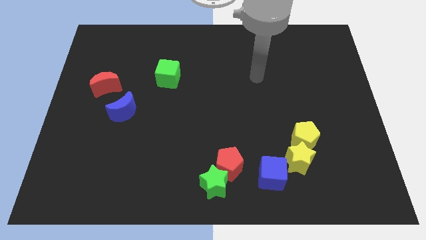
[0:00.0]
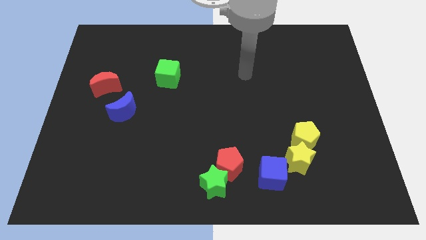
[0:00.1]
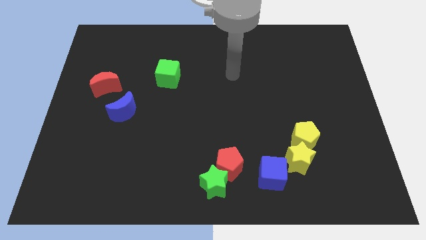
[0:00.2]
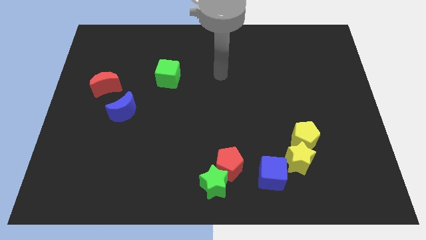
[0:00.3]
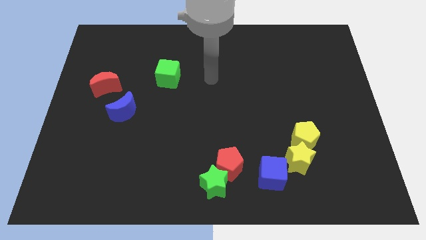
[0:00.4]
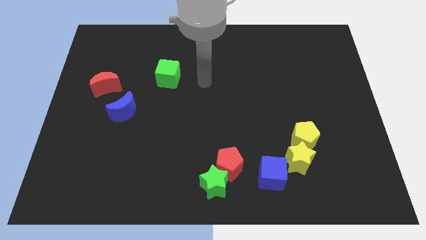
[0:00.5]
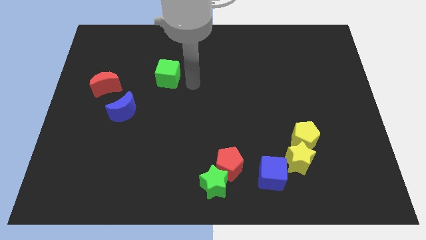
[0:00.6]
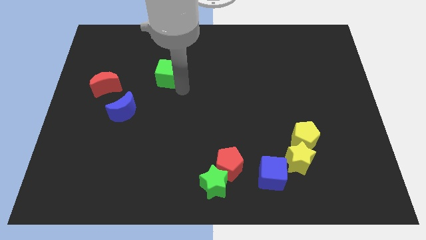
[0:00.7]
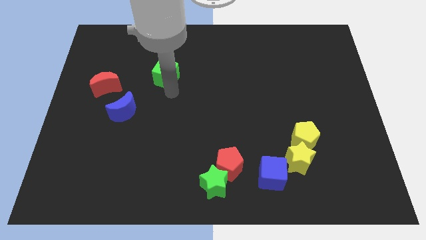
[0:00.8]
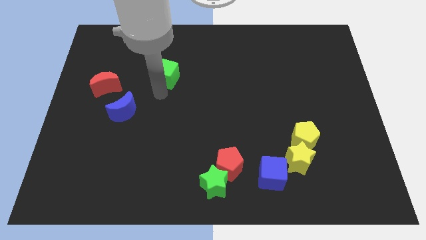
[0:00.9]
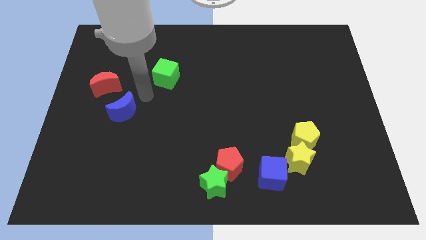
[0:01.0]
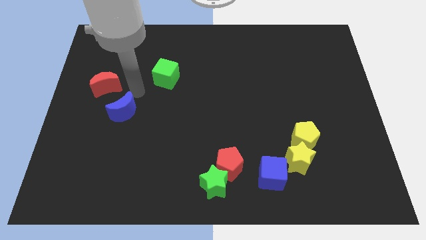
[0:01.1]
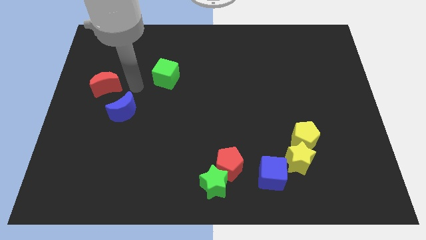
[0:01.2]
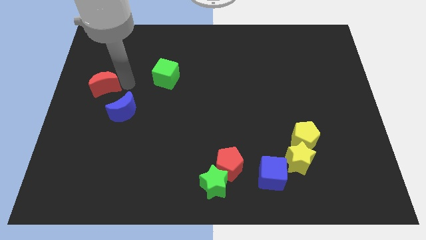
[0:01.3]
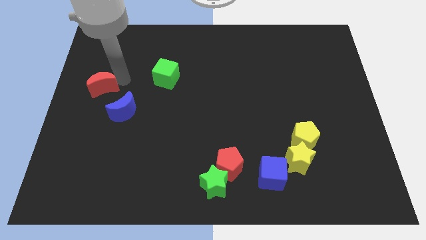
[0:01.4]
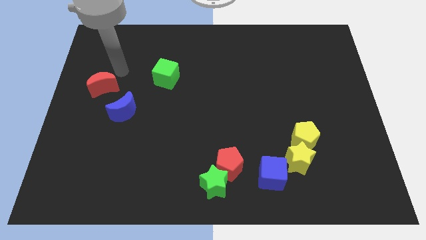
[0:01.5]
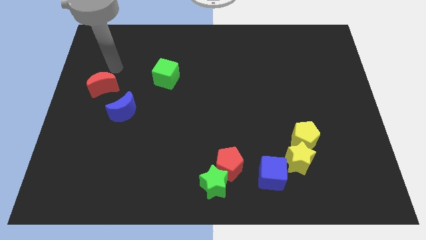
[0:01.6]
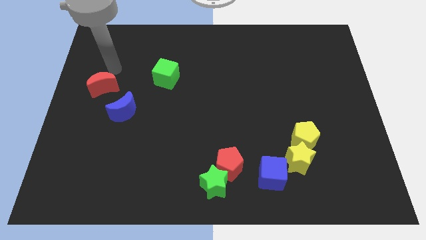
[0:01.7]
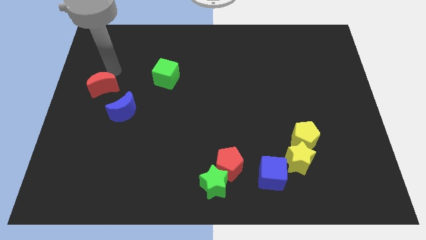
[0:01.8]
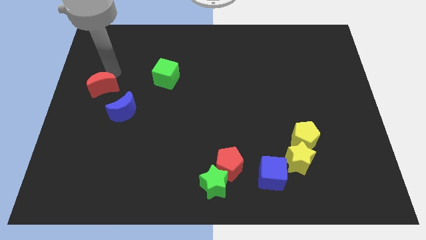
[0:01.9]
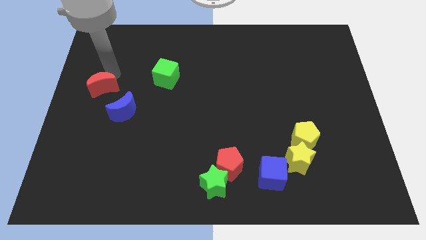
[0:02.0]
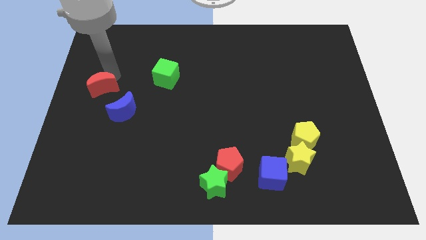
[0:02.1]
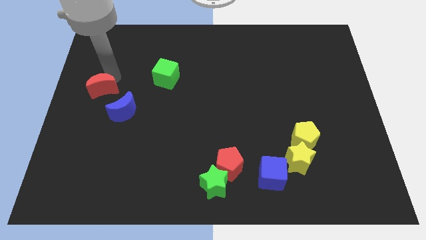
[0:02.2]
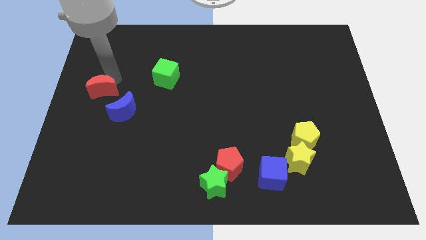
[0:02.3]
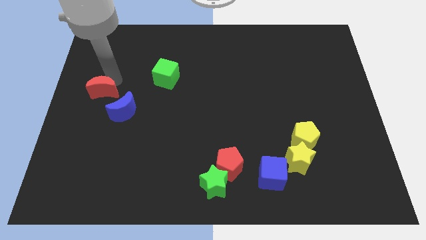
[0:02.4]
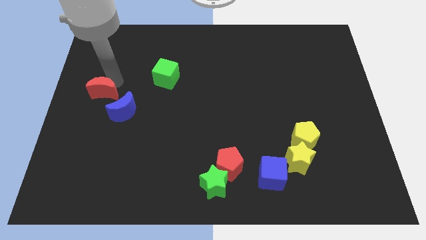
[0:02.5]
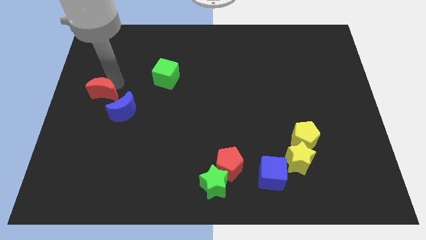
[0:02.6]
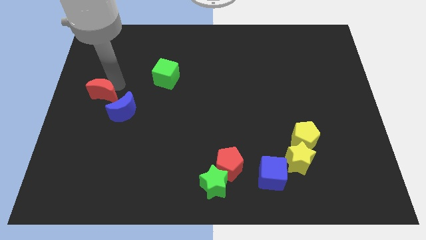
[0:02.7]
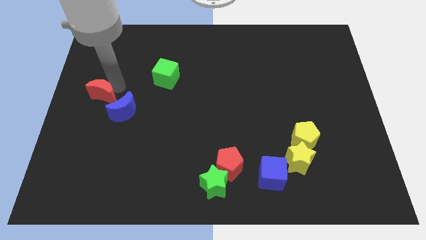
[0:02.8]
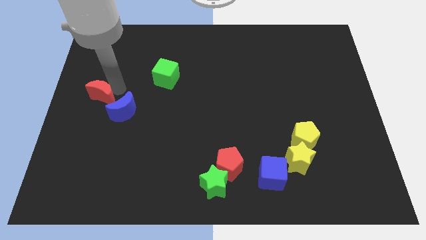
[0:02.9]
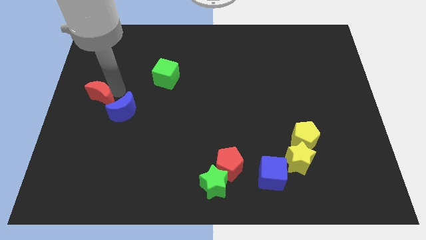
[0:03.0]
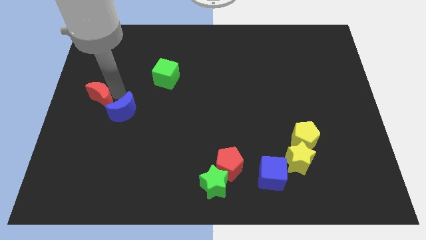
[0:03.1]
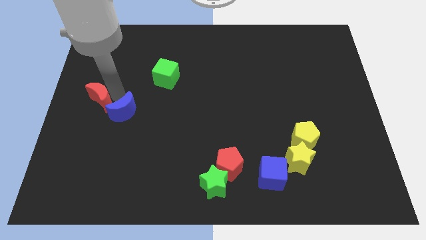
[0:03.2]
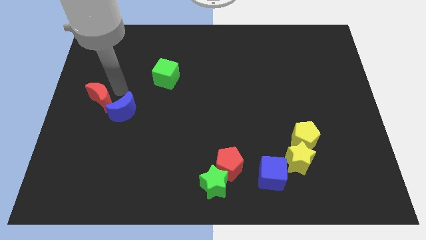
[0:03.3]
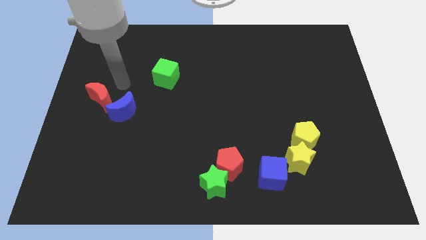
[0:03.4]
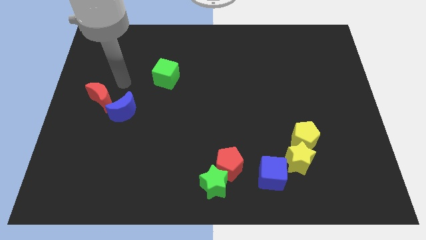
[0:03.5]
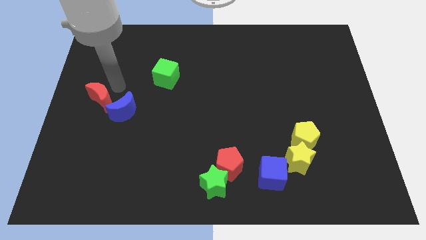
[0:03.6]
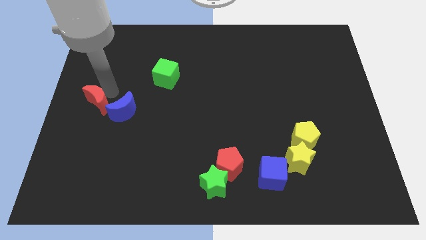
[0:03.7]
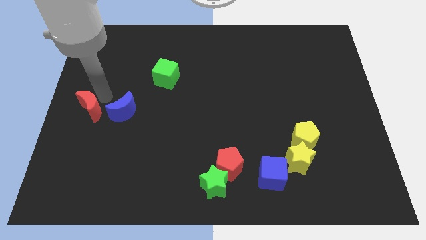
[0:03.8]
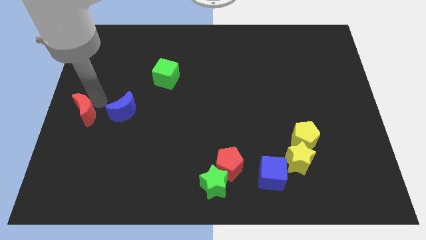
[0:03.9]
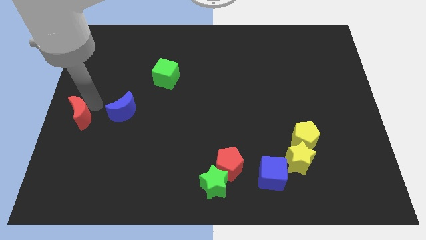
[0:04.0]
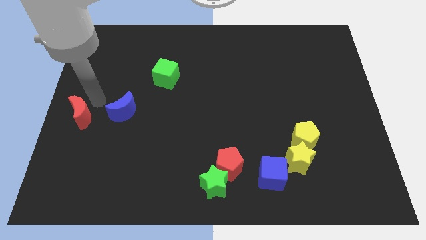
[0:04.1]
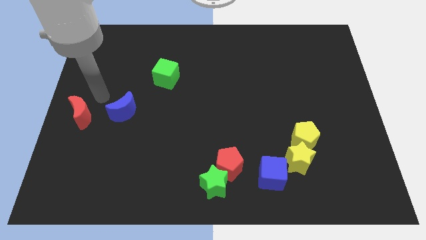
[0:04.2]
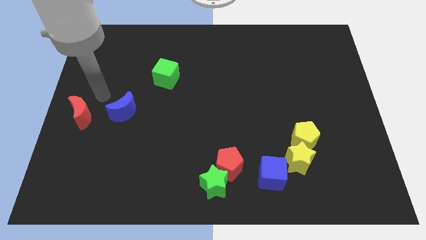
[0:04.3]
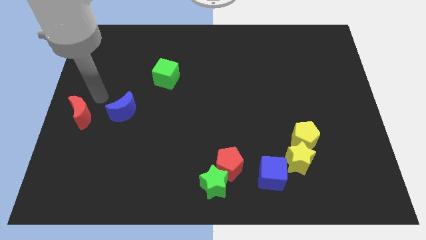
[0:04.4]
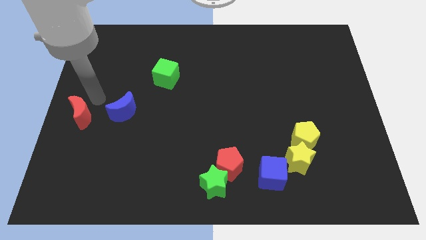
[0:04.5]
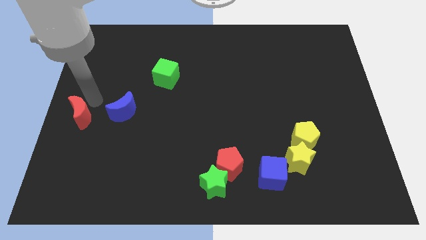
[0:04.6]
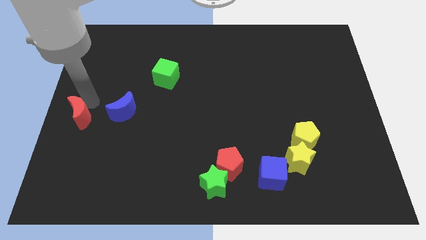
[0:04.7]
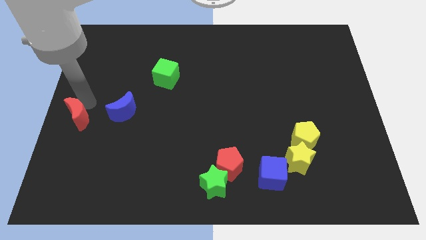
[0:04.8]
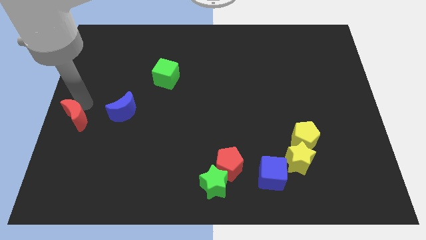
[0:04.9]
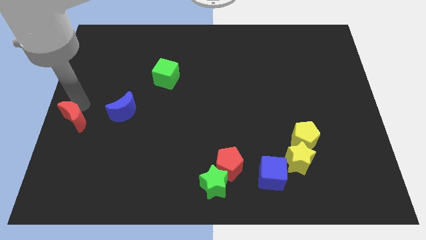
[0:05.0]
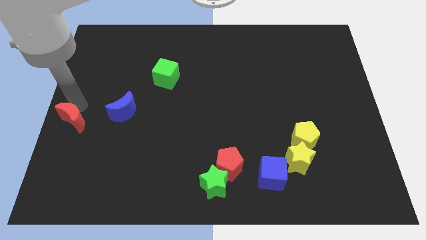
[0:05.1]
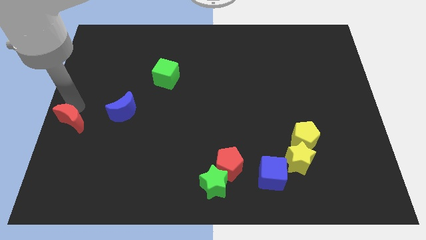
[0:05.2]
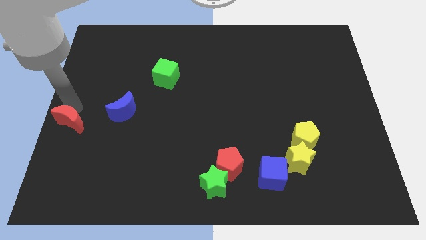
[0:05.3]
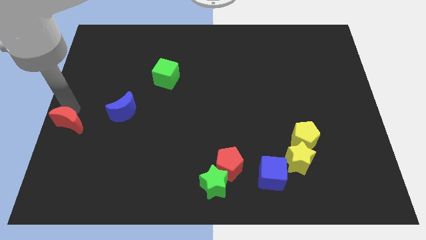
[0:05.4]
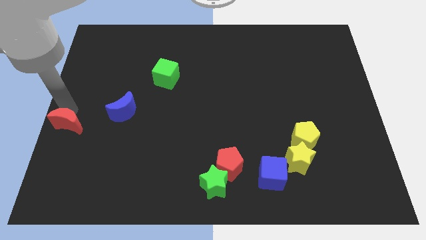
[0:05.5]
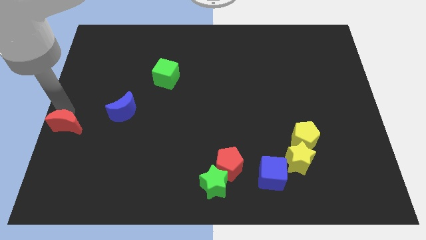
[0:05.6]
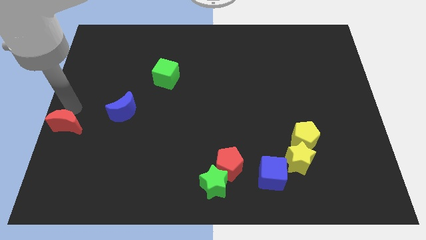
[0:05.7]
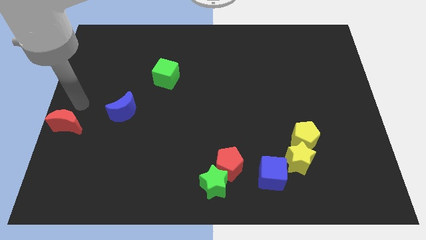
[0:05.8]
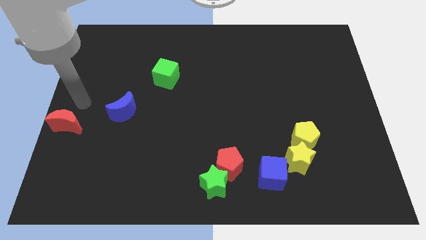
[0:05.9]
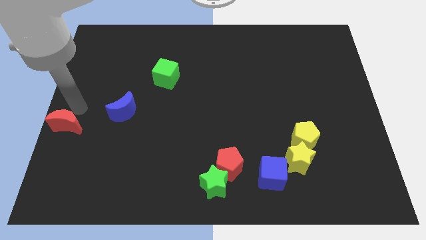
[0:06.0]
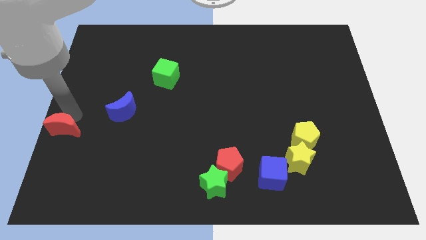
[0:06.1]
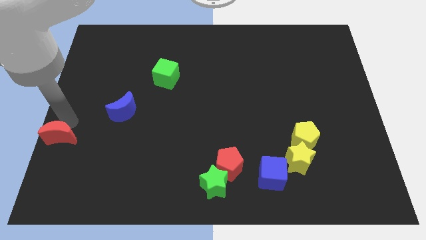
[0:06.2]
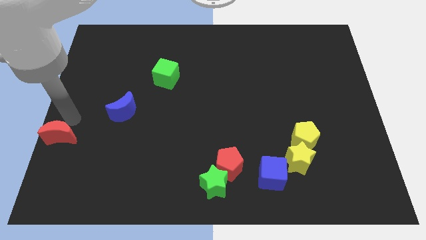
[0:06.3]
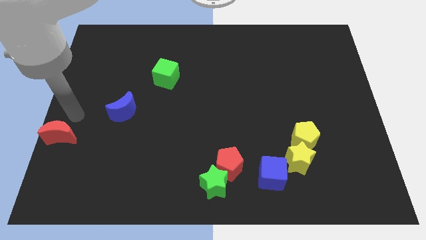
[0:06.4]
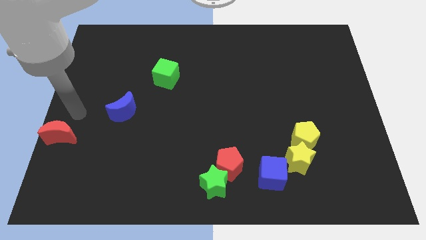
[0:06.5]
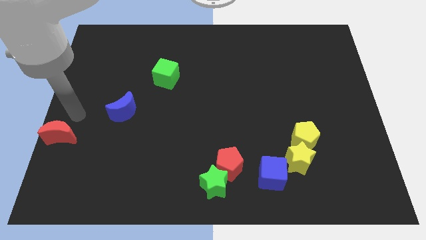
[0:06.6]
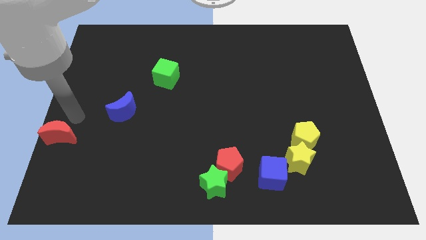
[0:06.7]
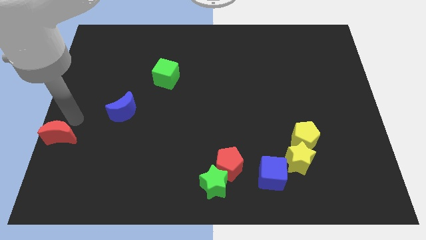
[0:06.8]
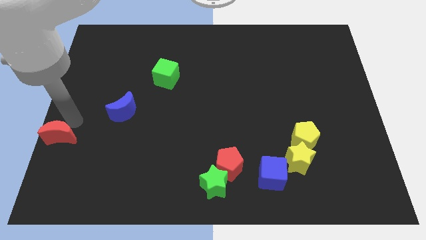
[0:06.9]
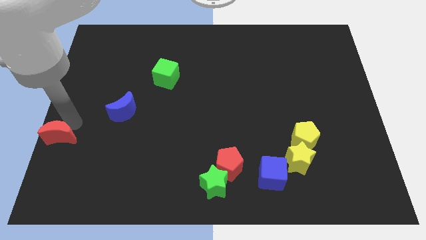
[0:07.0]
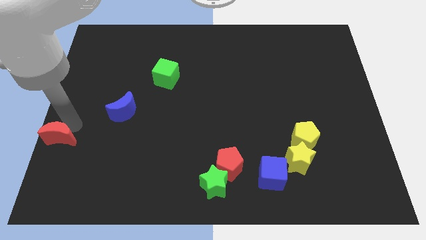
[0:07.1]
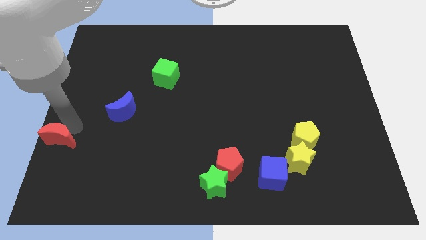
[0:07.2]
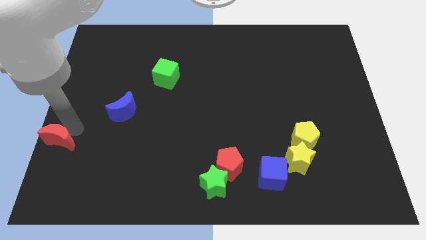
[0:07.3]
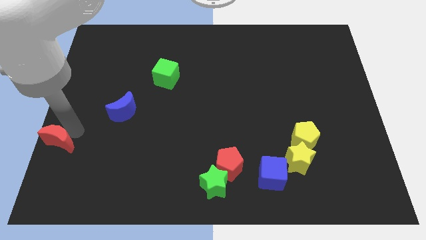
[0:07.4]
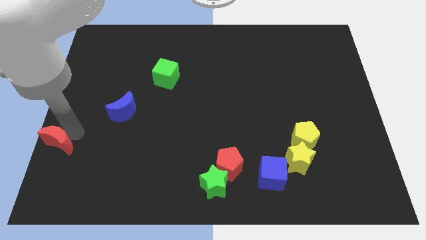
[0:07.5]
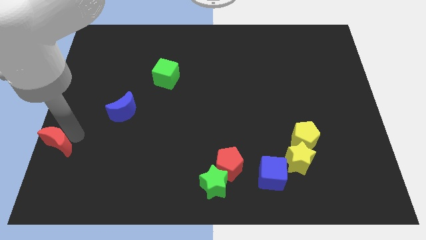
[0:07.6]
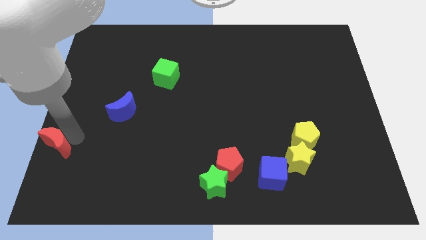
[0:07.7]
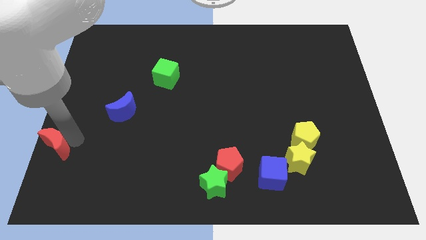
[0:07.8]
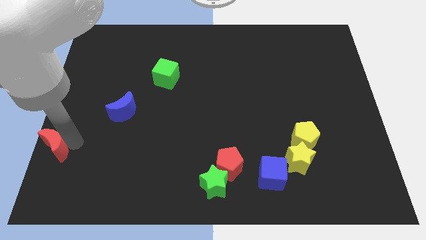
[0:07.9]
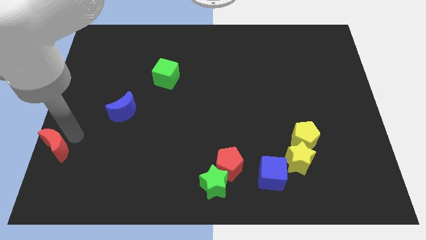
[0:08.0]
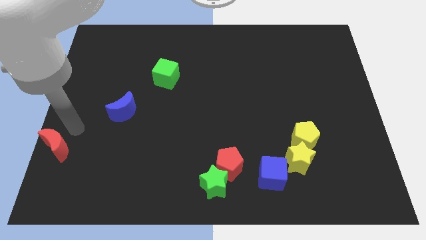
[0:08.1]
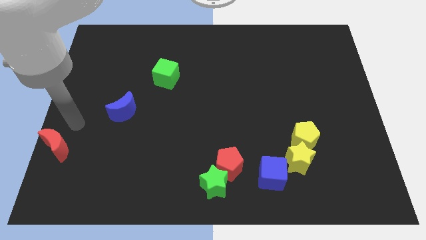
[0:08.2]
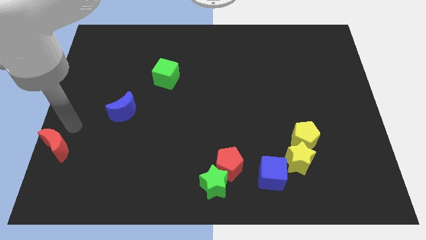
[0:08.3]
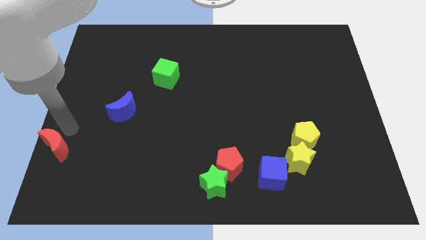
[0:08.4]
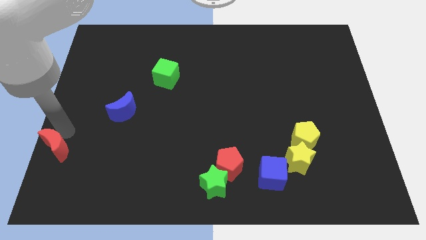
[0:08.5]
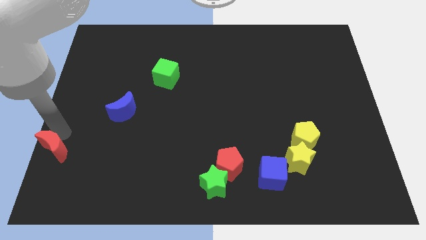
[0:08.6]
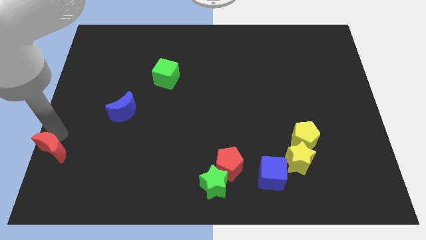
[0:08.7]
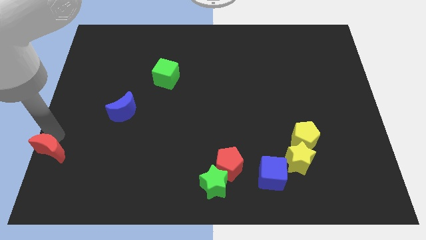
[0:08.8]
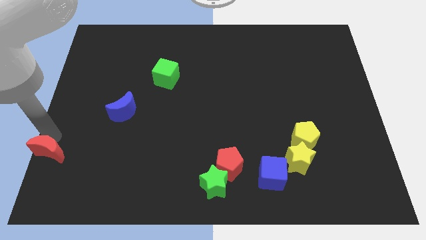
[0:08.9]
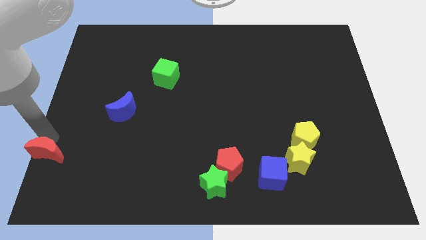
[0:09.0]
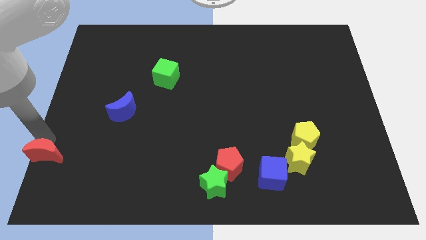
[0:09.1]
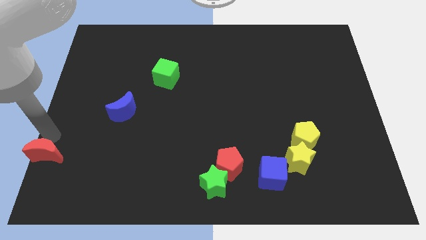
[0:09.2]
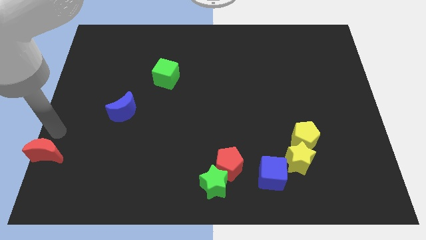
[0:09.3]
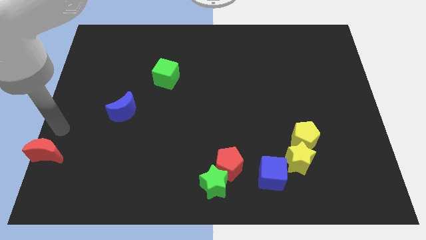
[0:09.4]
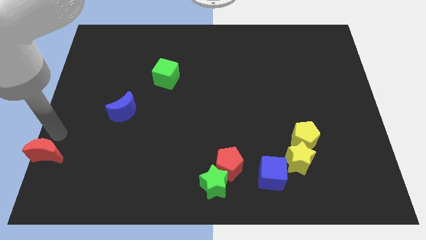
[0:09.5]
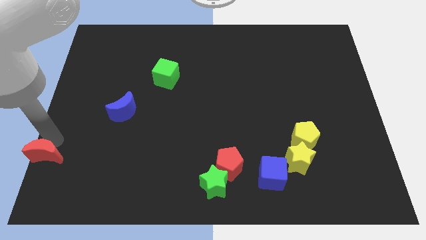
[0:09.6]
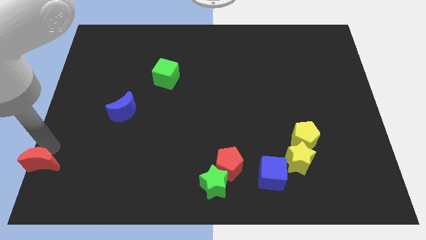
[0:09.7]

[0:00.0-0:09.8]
put the red moon to the lower left corner
